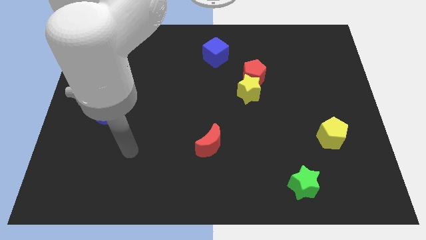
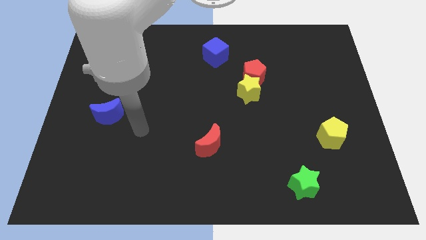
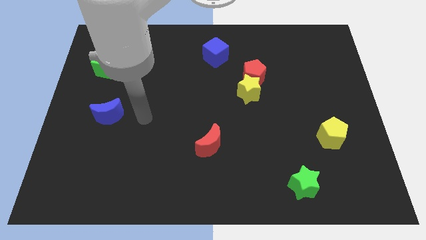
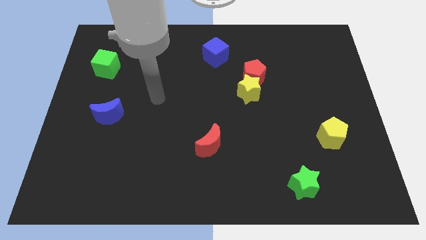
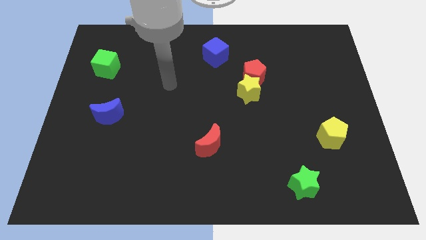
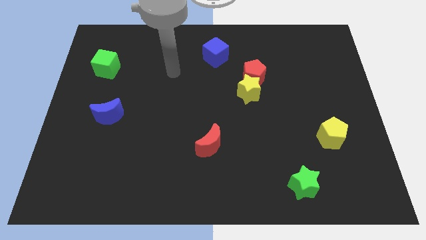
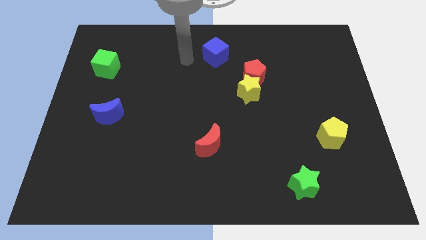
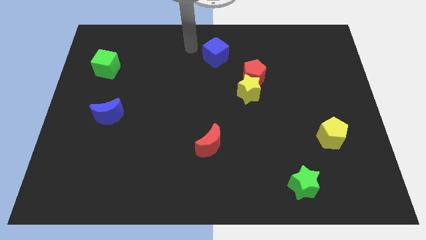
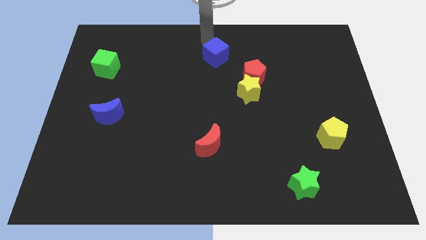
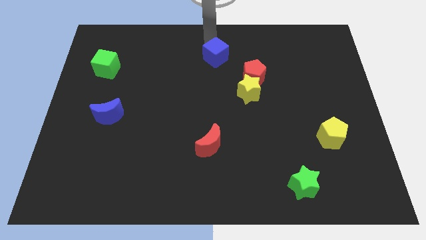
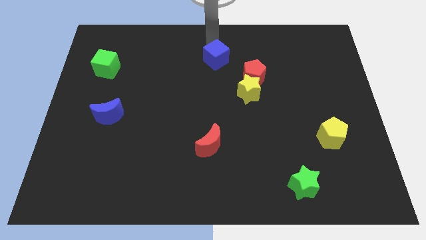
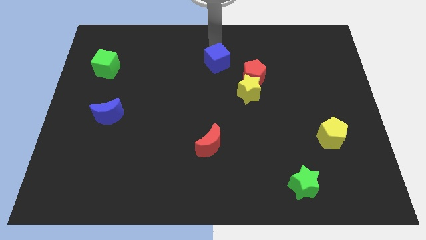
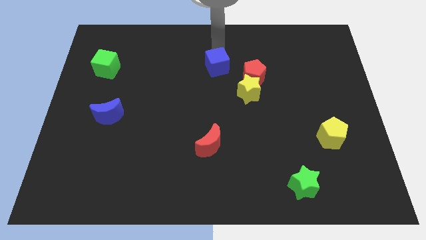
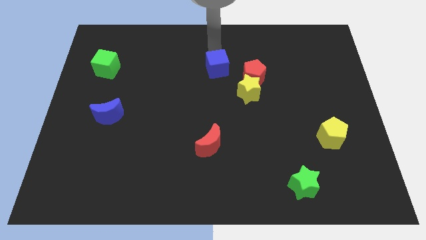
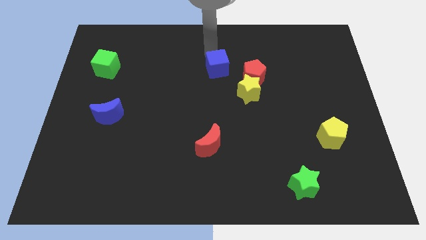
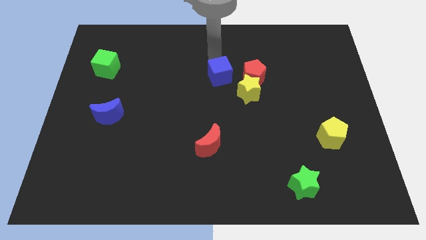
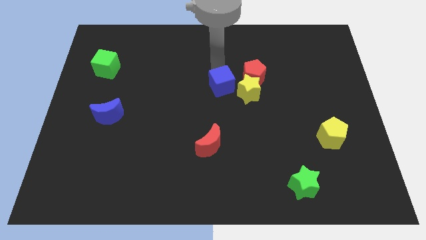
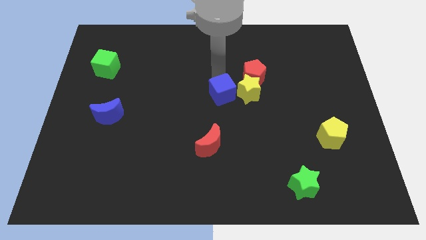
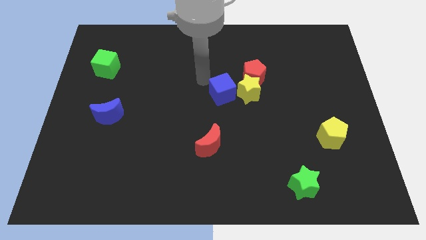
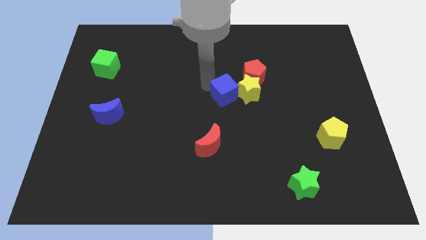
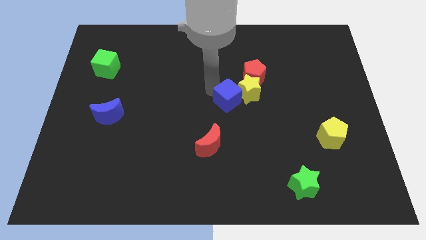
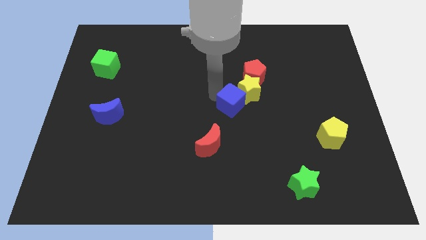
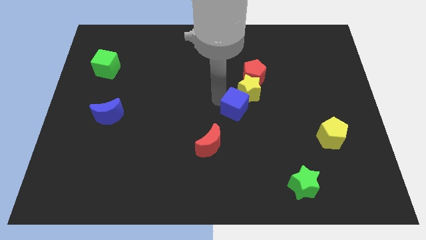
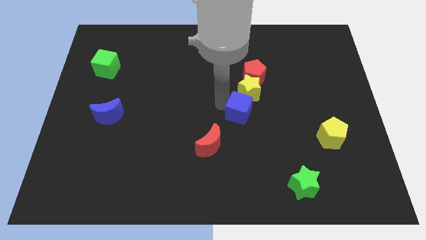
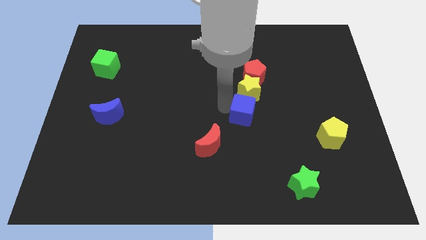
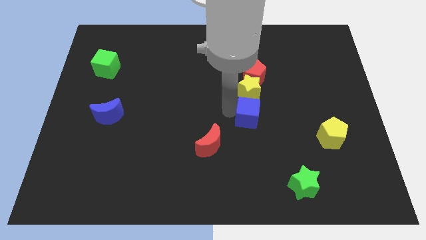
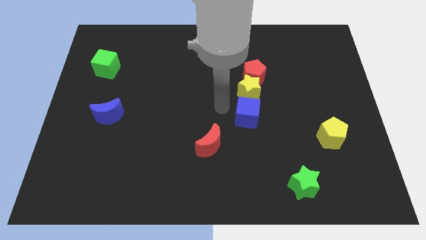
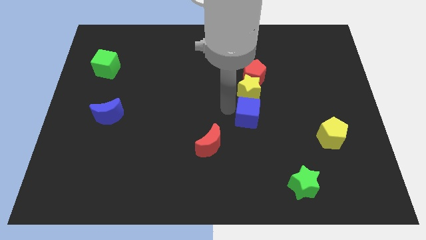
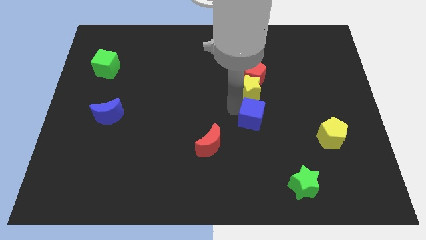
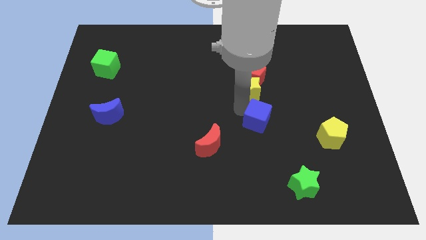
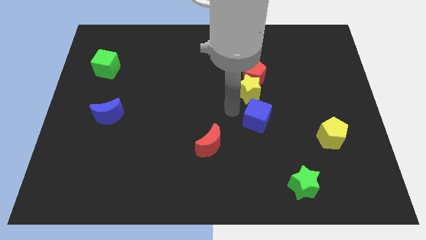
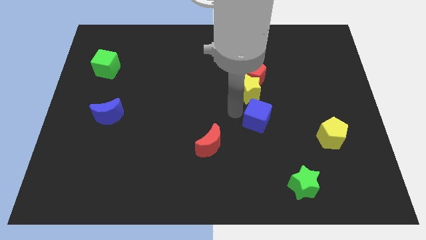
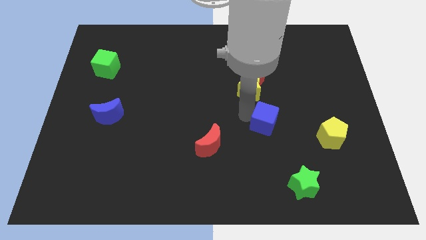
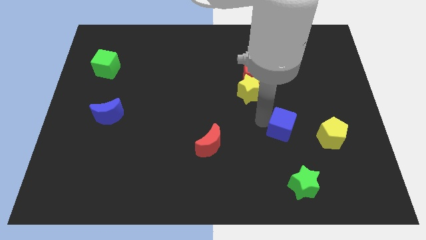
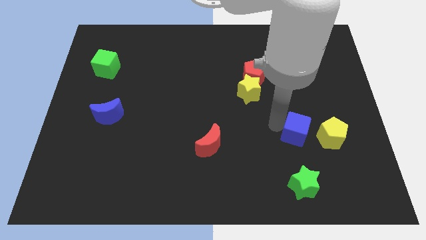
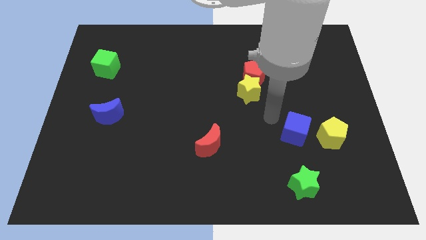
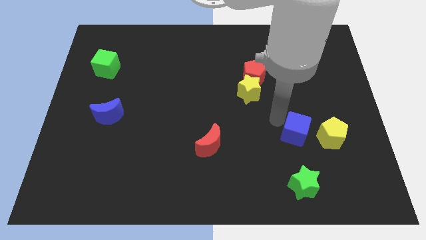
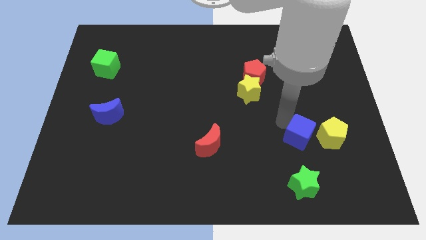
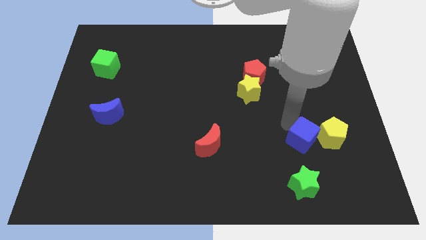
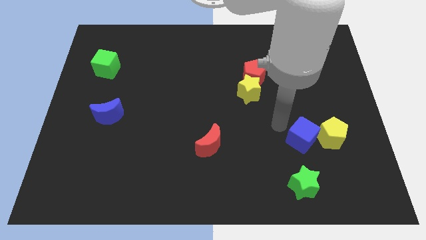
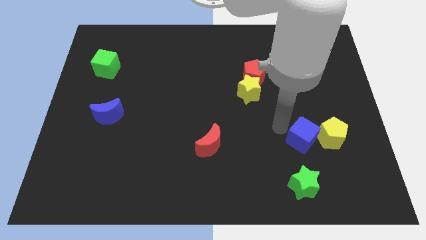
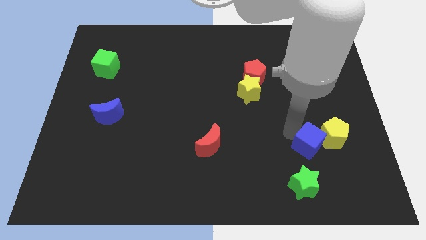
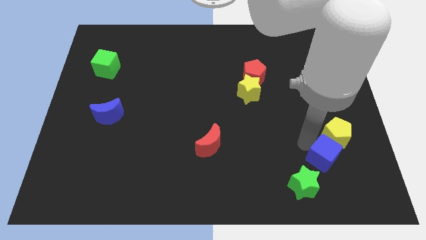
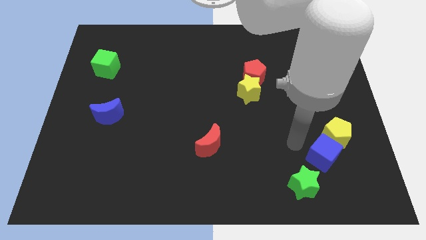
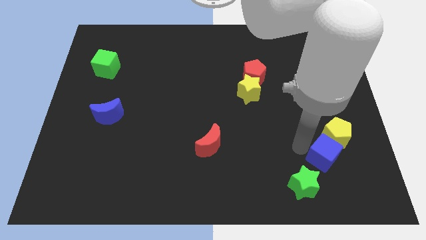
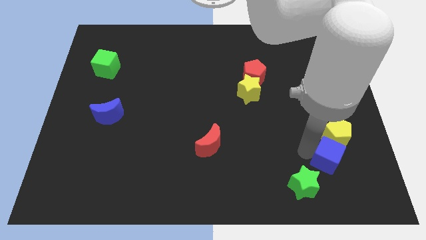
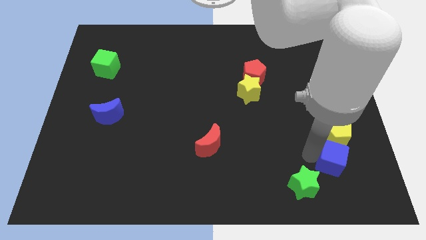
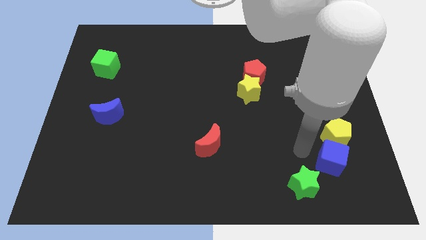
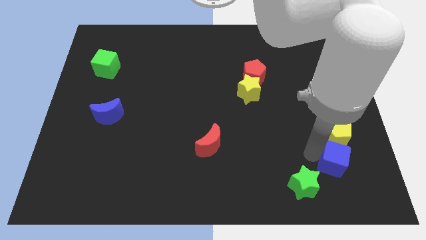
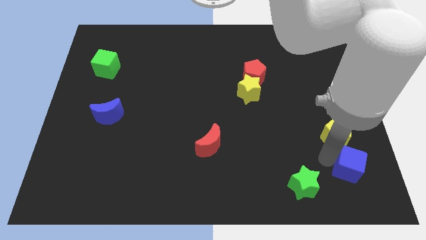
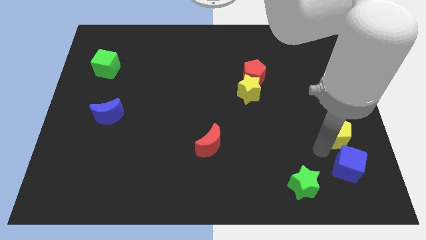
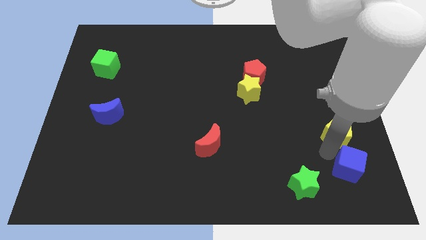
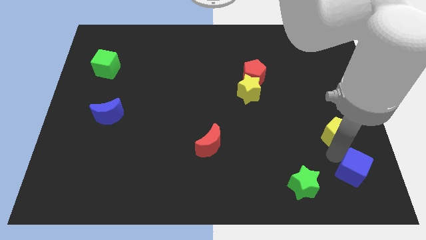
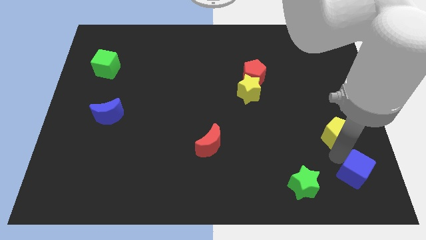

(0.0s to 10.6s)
move the blue cube to the bottom right corner

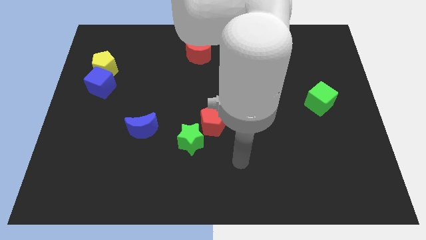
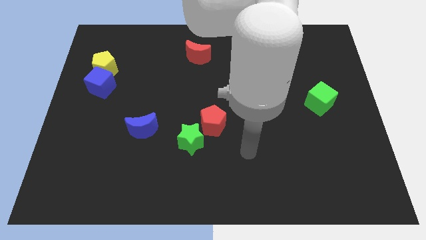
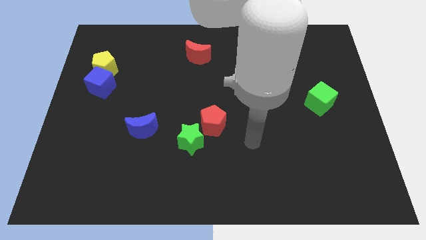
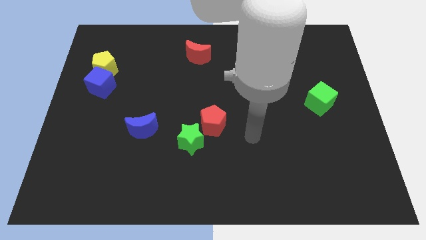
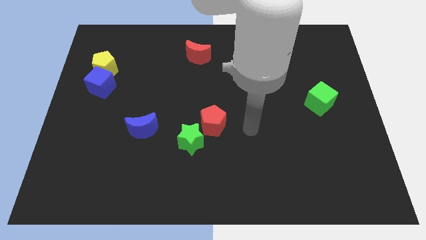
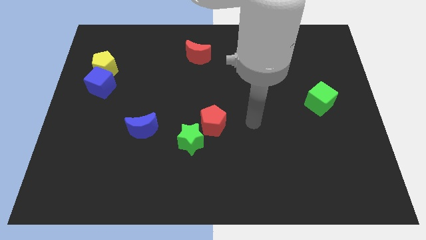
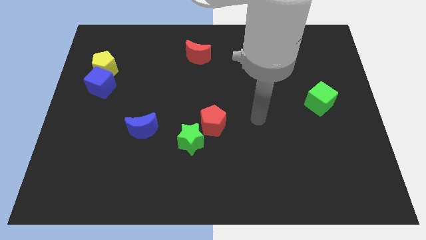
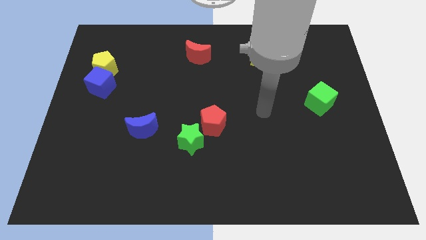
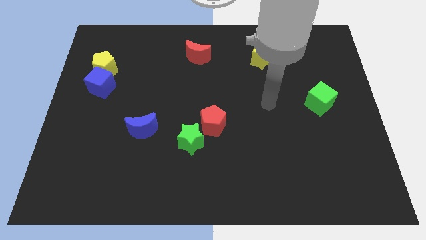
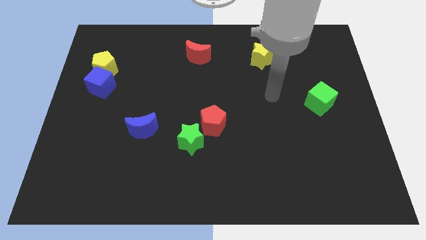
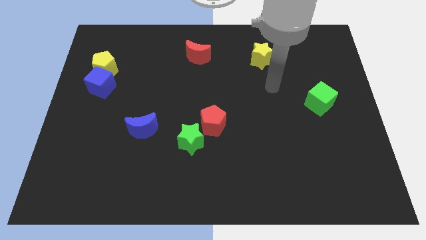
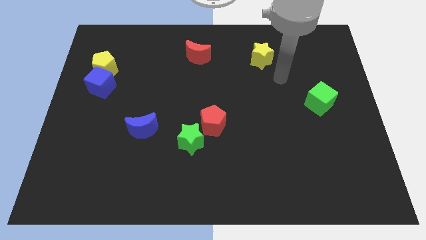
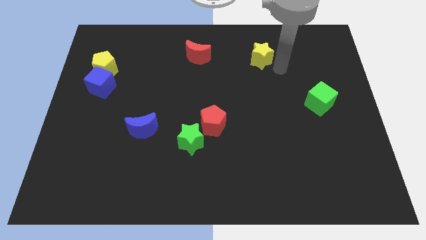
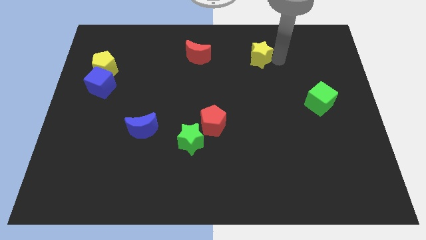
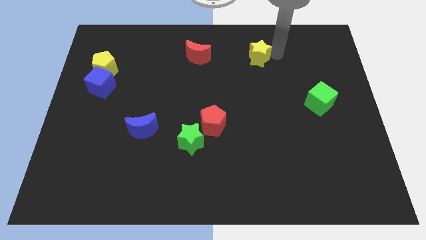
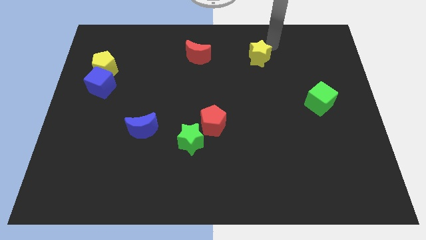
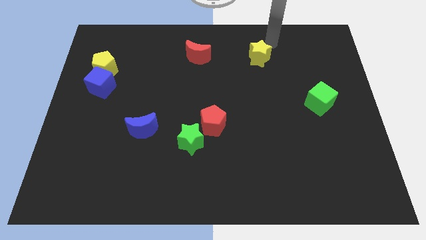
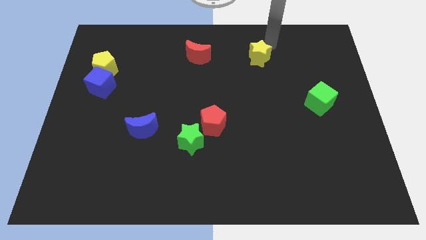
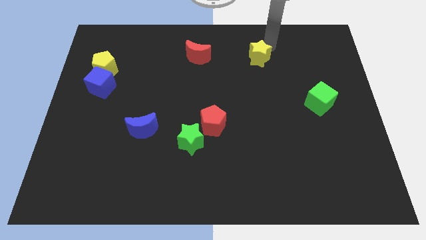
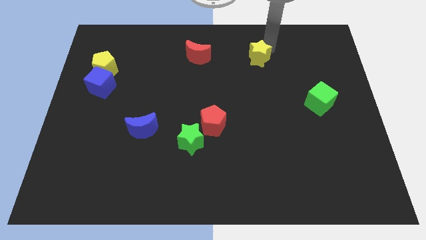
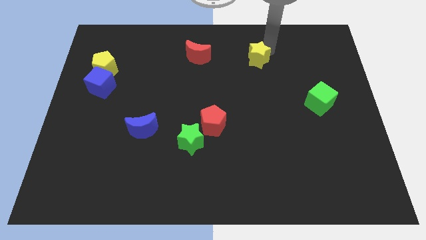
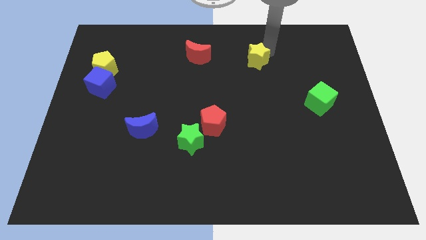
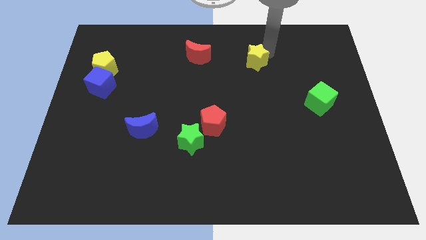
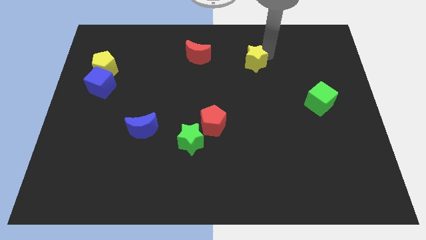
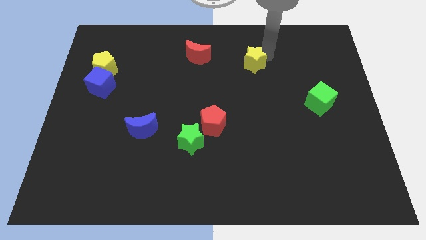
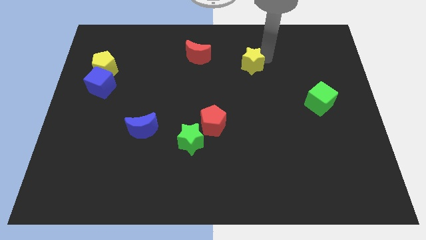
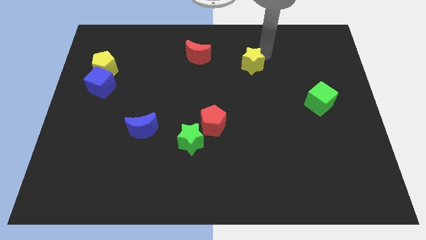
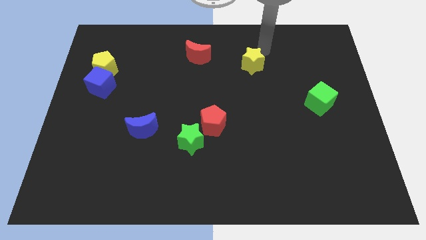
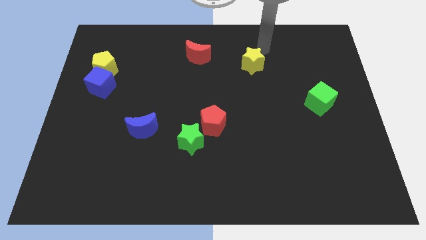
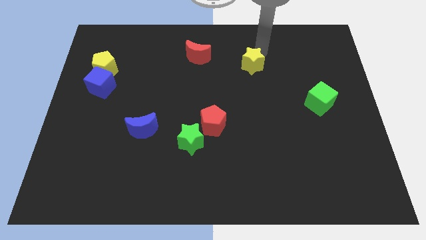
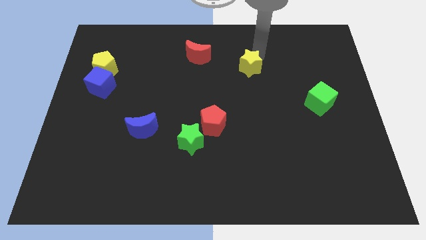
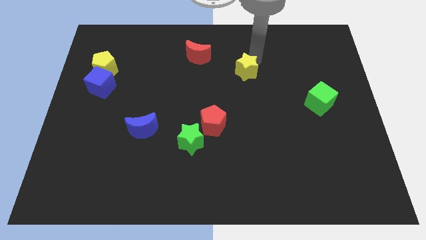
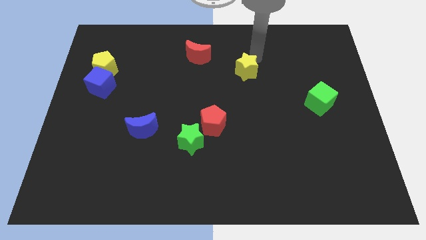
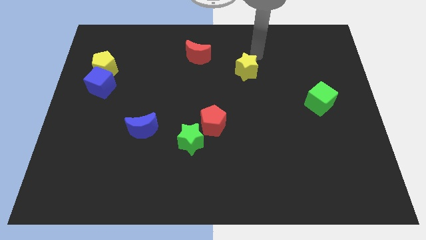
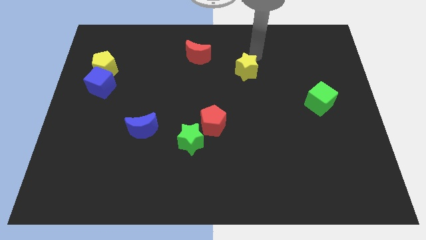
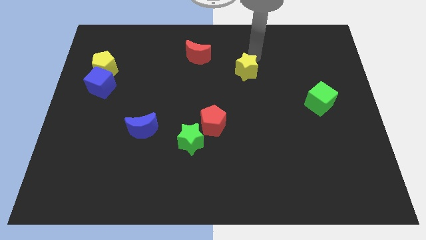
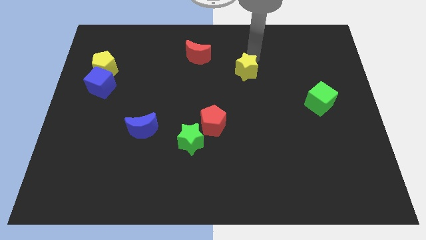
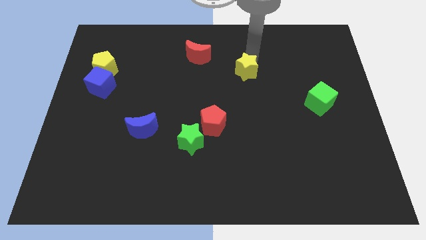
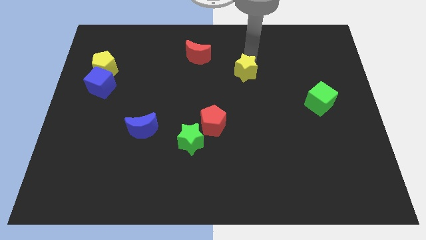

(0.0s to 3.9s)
move the yellow star to the center
